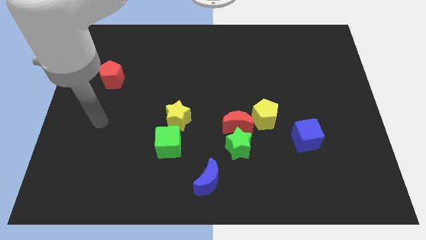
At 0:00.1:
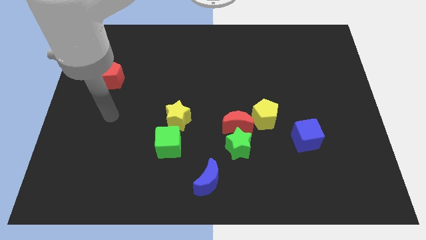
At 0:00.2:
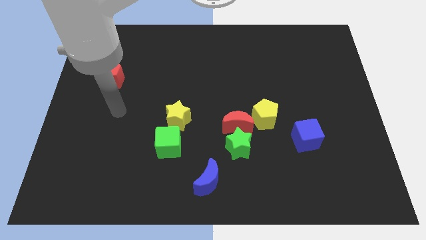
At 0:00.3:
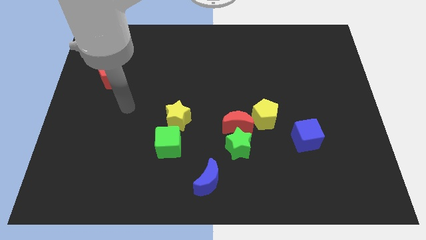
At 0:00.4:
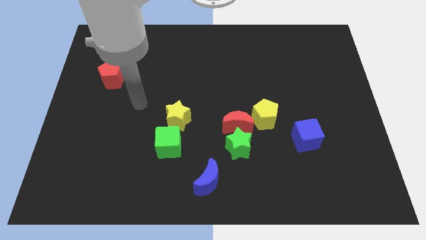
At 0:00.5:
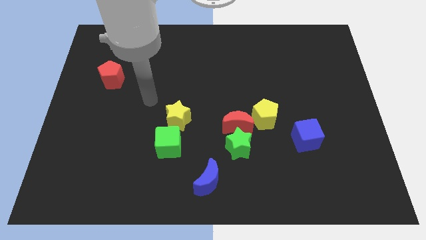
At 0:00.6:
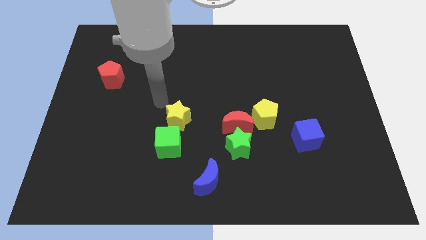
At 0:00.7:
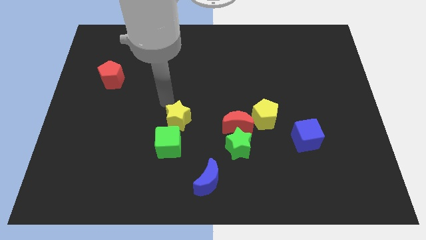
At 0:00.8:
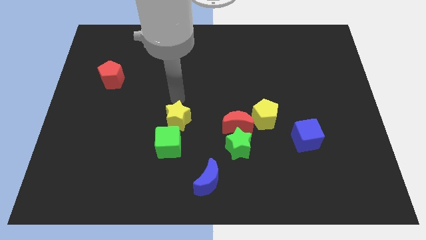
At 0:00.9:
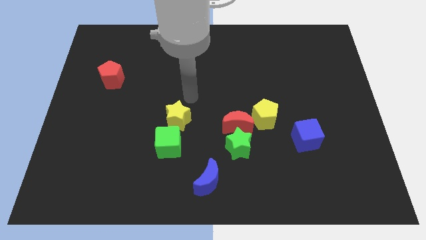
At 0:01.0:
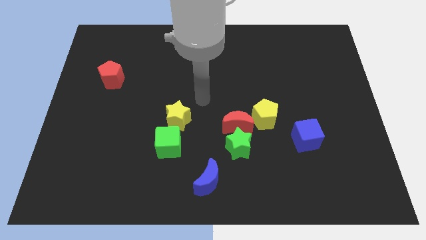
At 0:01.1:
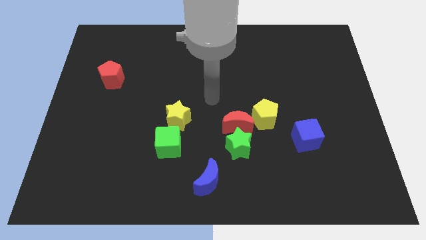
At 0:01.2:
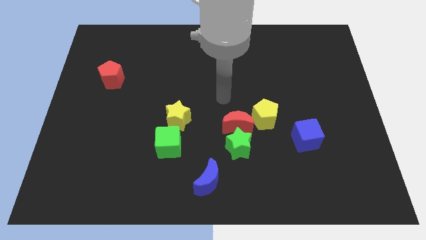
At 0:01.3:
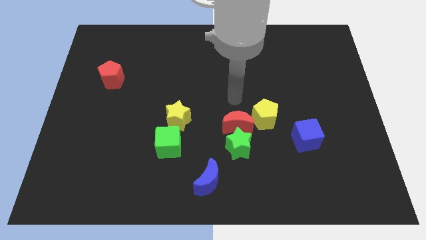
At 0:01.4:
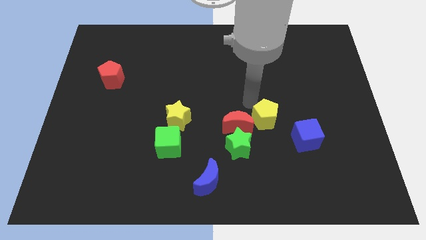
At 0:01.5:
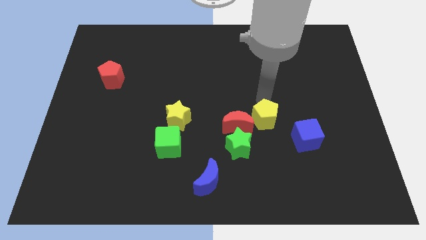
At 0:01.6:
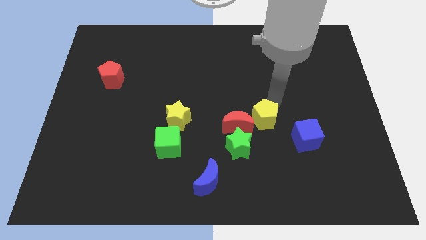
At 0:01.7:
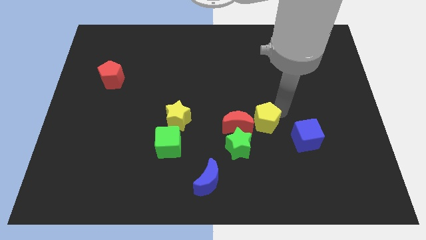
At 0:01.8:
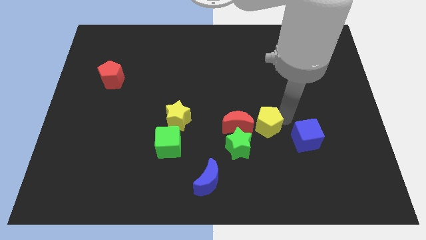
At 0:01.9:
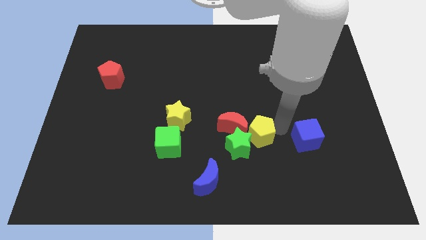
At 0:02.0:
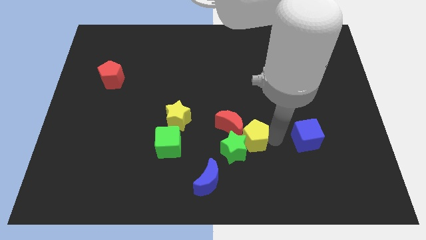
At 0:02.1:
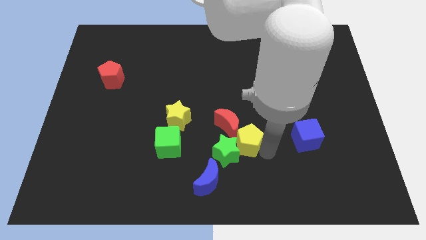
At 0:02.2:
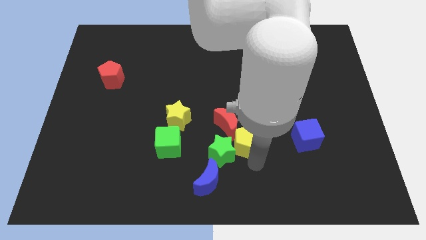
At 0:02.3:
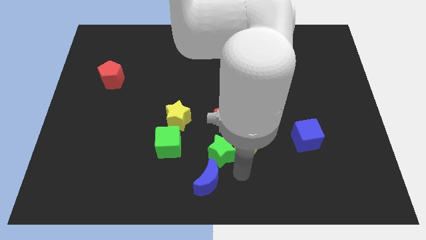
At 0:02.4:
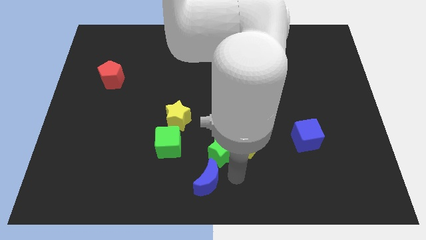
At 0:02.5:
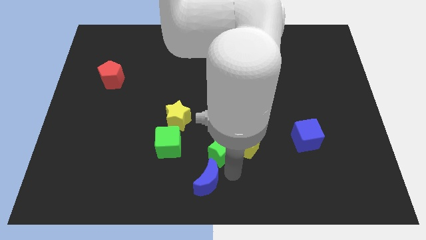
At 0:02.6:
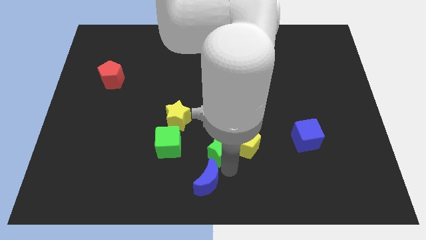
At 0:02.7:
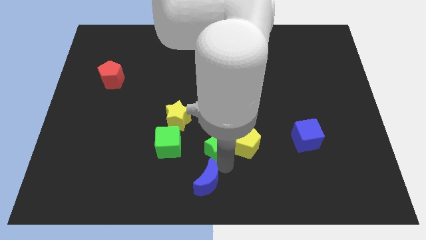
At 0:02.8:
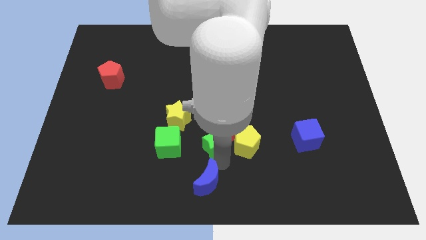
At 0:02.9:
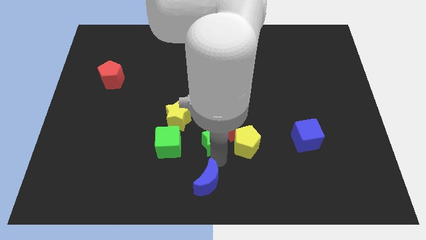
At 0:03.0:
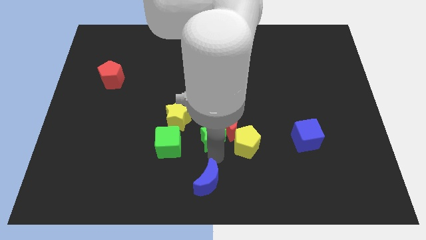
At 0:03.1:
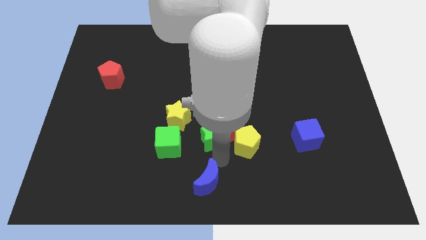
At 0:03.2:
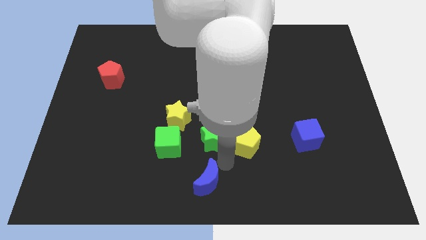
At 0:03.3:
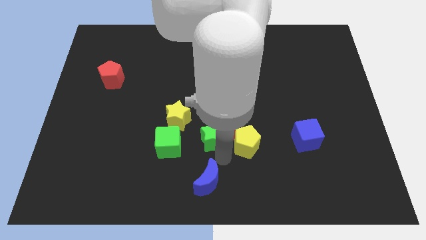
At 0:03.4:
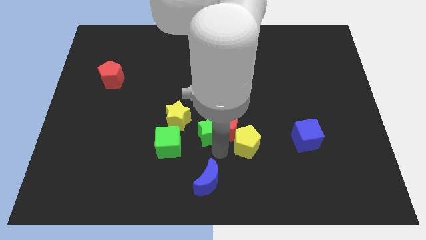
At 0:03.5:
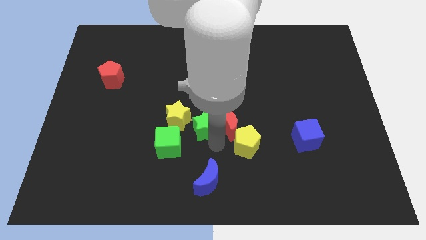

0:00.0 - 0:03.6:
slide the green star upwards and to the left a little bit

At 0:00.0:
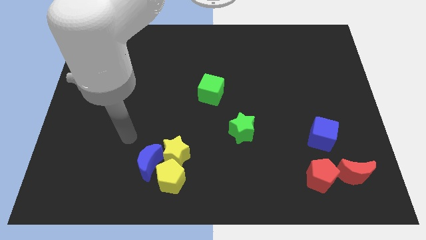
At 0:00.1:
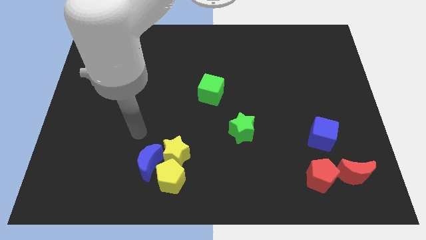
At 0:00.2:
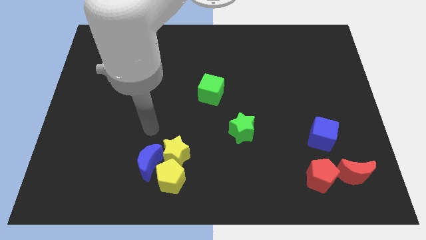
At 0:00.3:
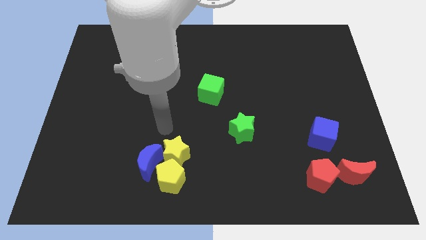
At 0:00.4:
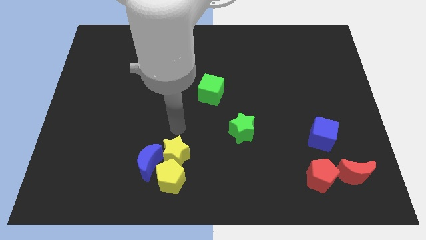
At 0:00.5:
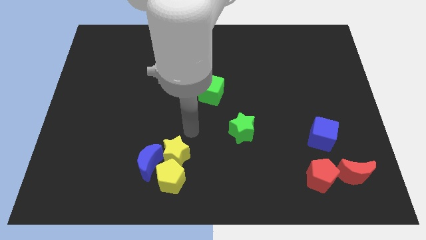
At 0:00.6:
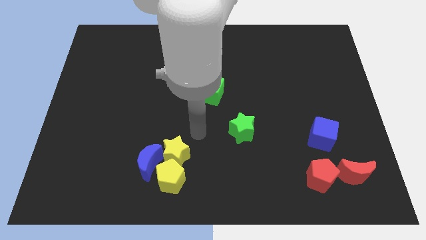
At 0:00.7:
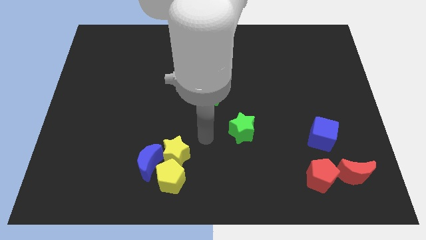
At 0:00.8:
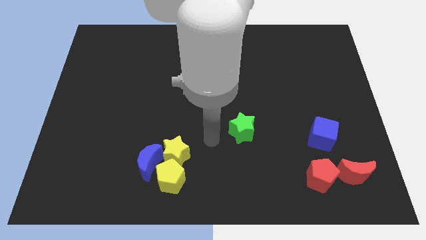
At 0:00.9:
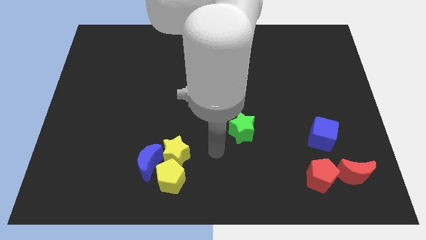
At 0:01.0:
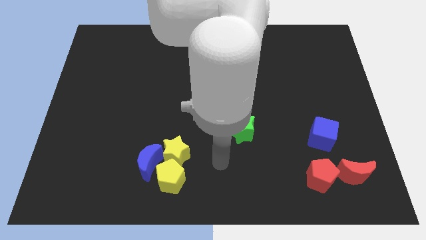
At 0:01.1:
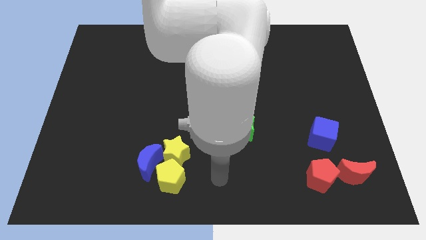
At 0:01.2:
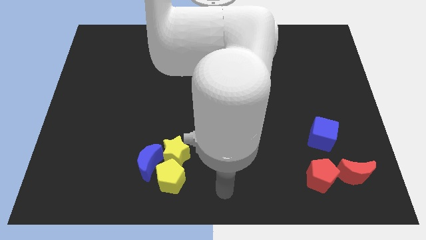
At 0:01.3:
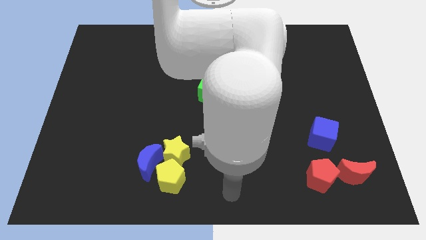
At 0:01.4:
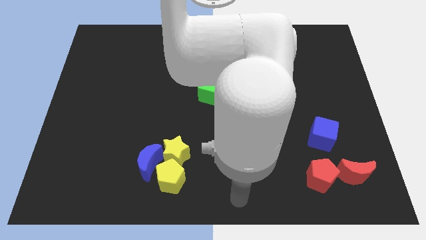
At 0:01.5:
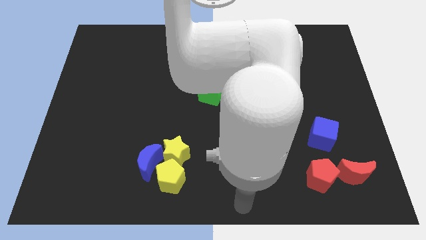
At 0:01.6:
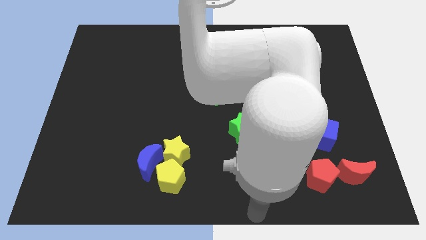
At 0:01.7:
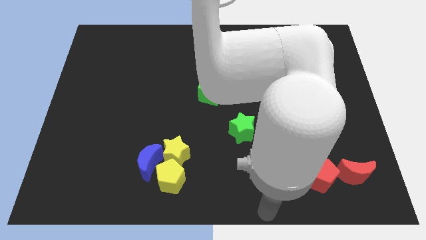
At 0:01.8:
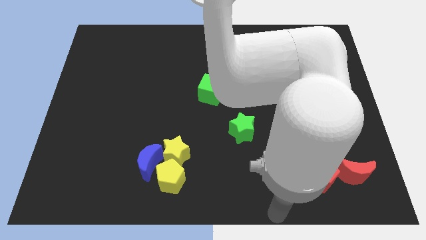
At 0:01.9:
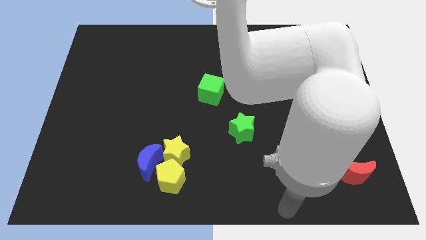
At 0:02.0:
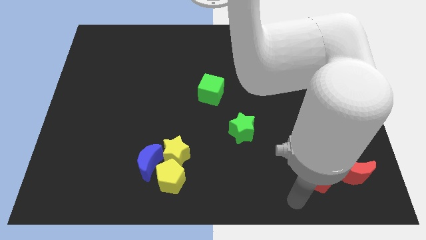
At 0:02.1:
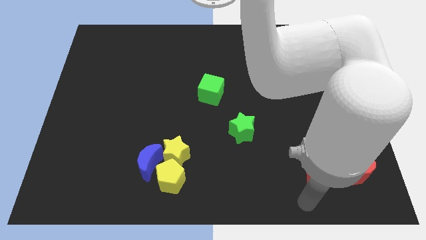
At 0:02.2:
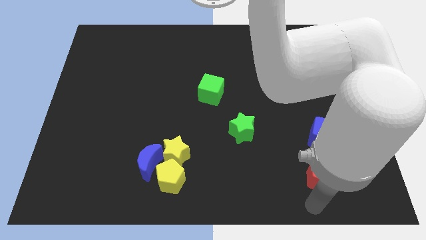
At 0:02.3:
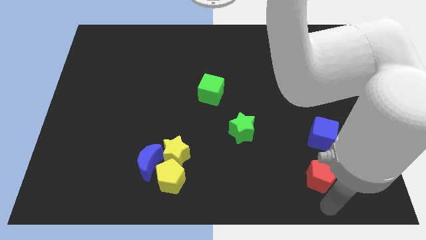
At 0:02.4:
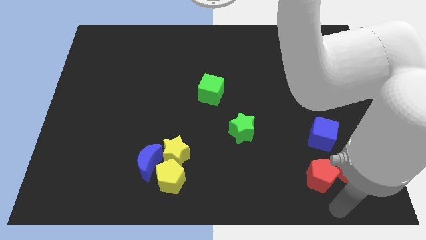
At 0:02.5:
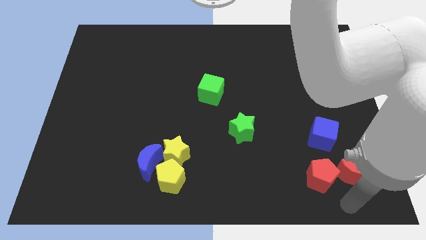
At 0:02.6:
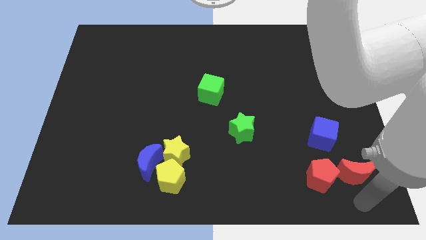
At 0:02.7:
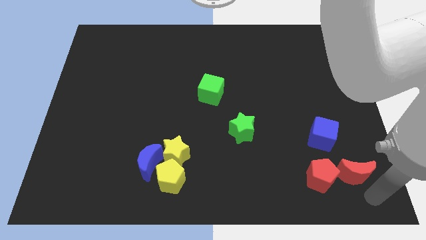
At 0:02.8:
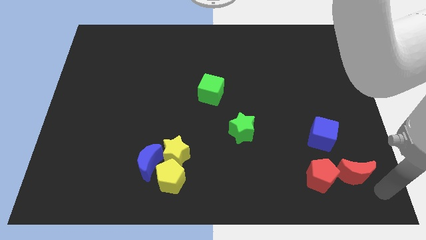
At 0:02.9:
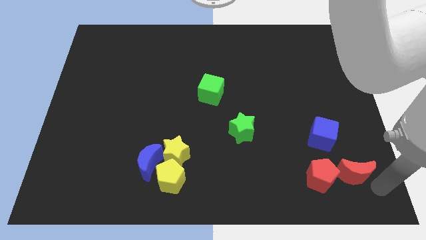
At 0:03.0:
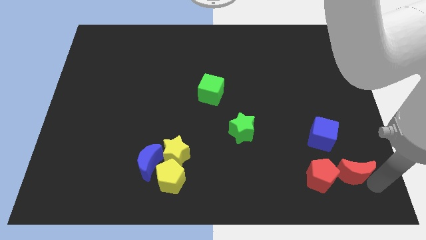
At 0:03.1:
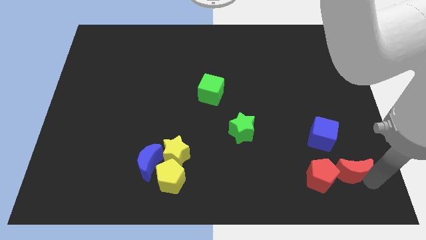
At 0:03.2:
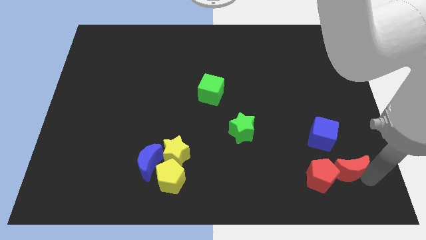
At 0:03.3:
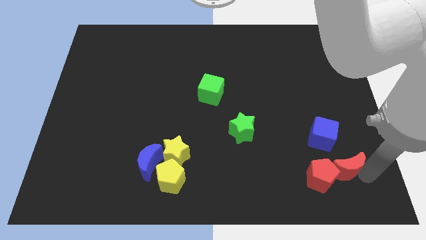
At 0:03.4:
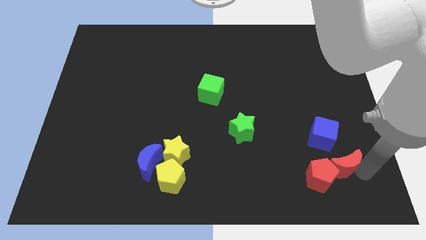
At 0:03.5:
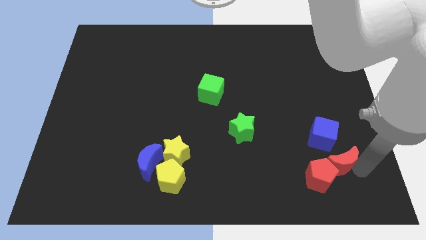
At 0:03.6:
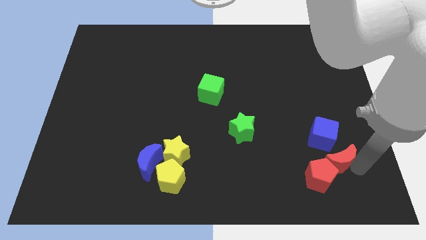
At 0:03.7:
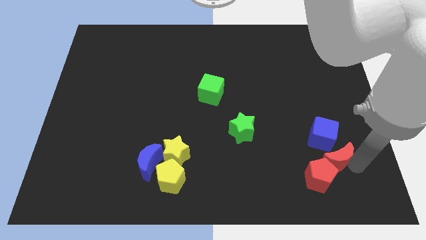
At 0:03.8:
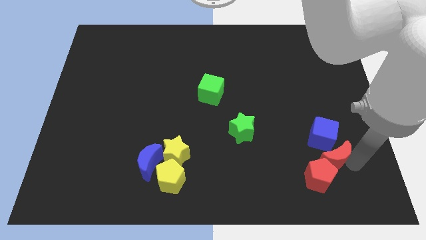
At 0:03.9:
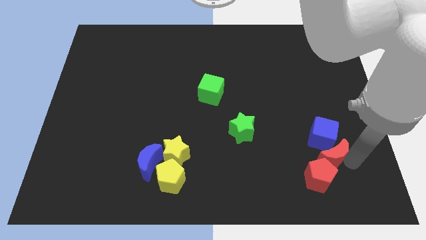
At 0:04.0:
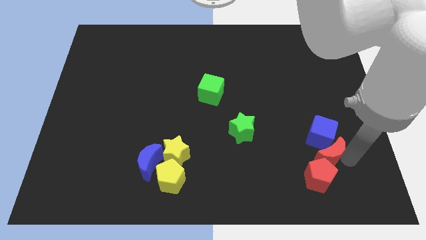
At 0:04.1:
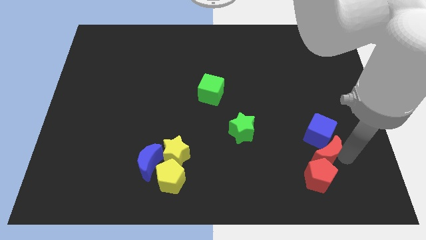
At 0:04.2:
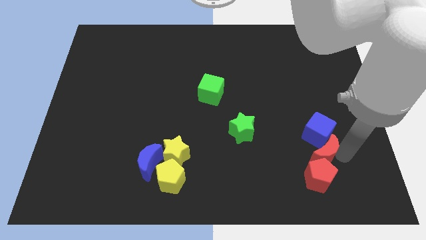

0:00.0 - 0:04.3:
slightly push the red moon diagonally up and to the left
